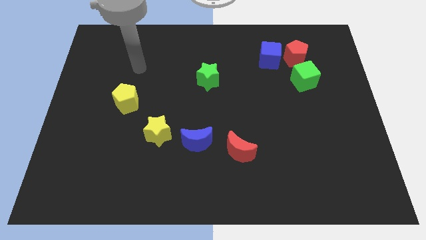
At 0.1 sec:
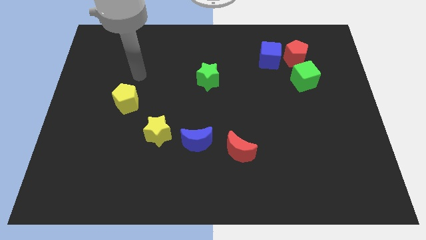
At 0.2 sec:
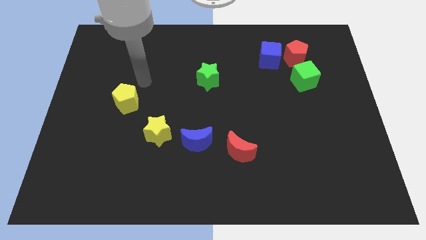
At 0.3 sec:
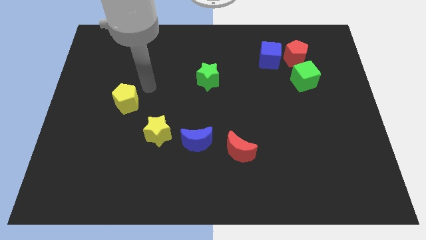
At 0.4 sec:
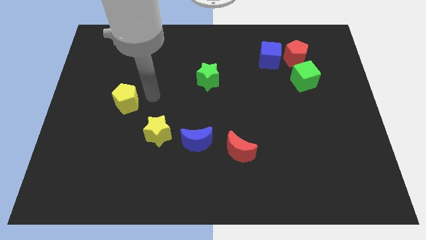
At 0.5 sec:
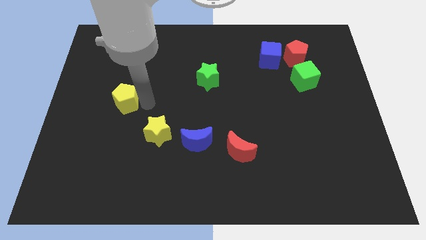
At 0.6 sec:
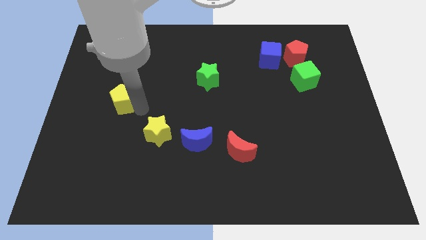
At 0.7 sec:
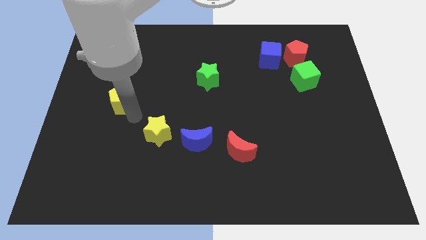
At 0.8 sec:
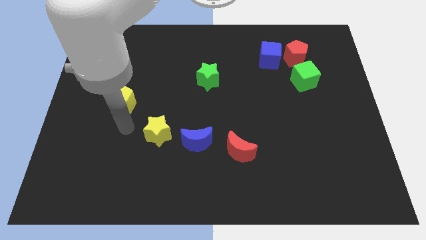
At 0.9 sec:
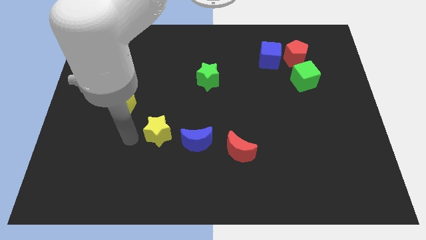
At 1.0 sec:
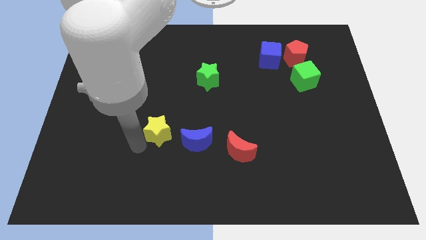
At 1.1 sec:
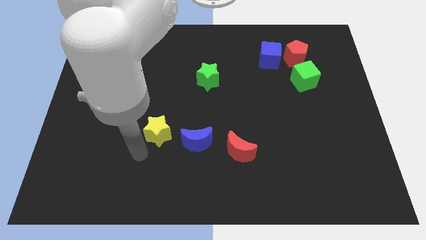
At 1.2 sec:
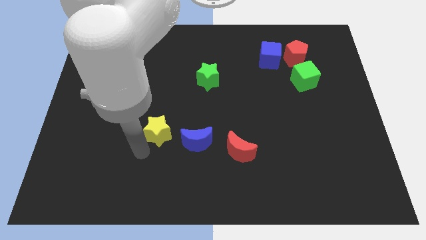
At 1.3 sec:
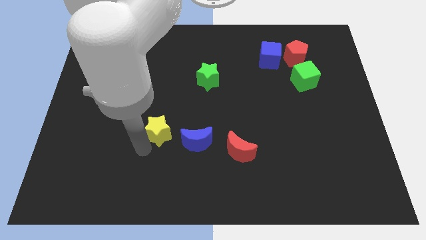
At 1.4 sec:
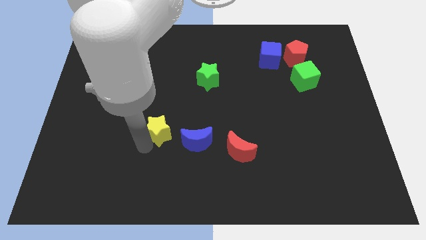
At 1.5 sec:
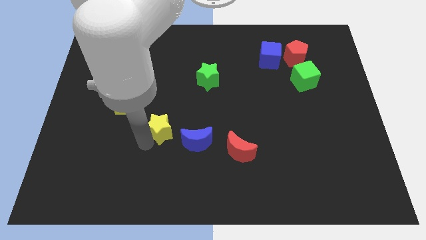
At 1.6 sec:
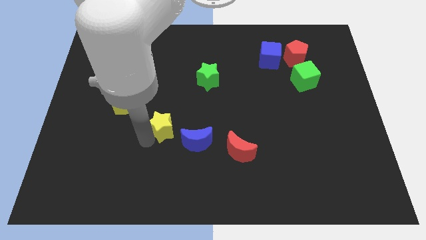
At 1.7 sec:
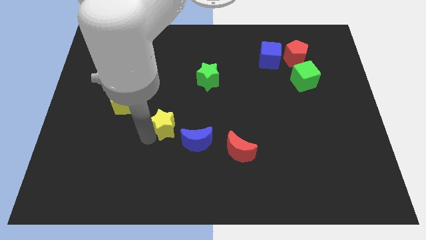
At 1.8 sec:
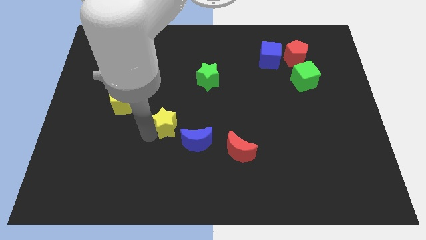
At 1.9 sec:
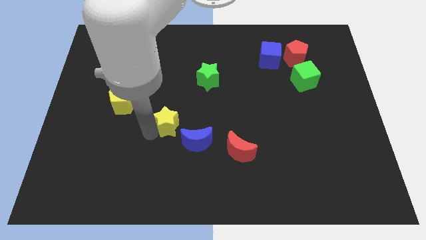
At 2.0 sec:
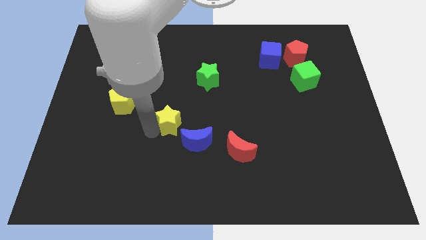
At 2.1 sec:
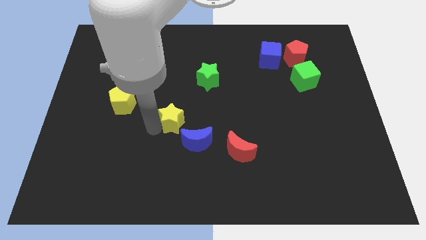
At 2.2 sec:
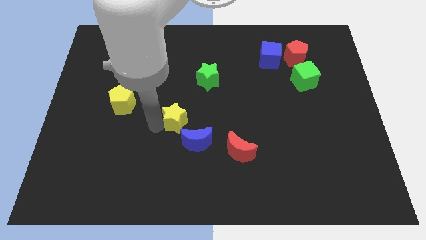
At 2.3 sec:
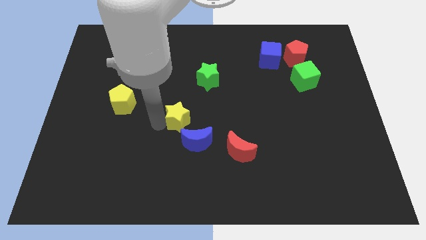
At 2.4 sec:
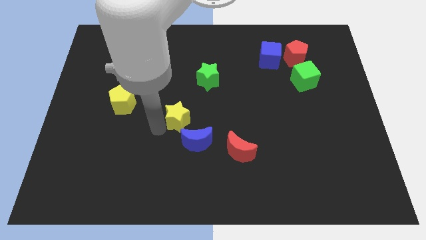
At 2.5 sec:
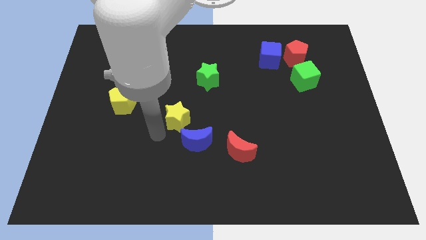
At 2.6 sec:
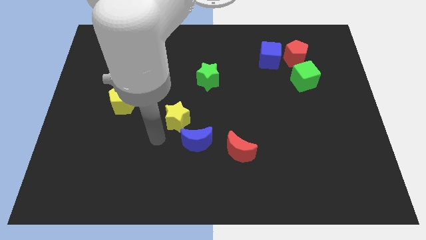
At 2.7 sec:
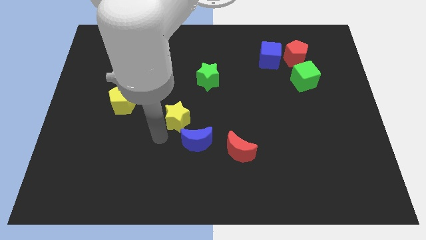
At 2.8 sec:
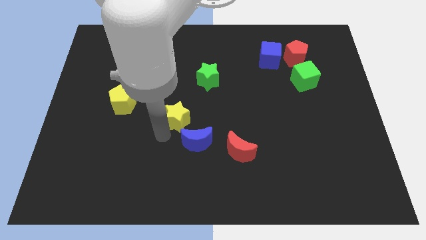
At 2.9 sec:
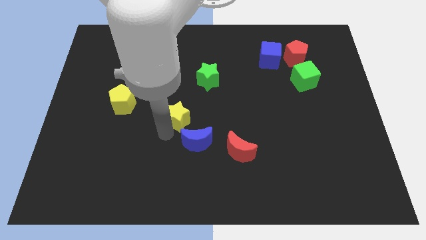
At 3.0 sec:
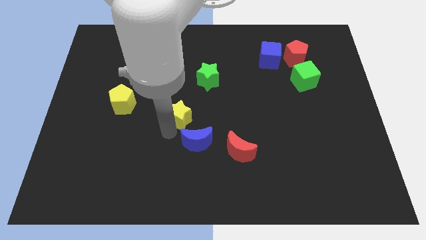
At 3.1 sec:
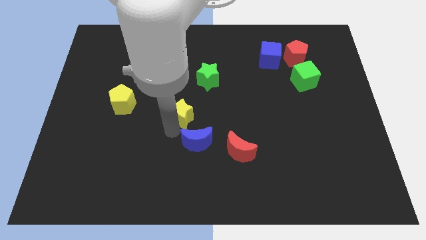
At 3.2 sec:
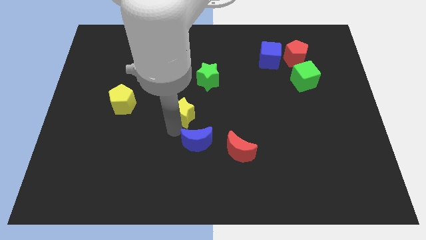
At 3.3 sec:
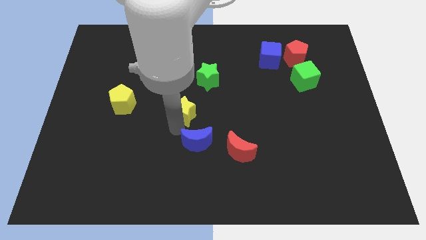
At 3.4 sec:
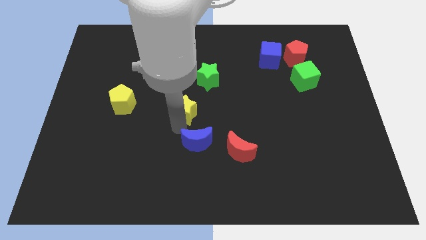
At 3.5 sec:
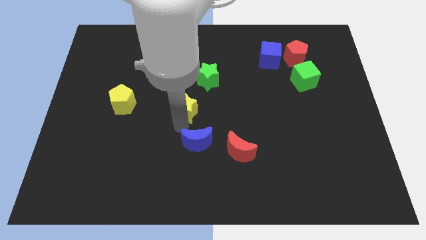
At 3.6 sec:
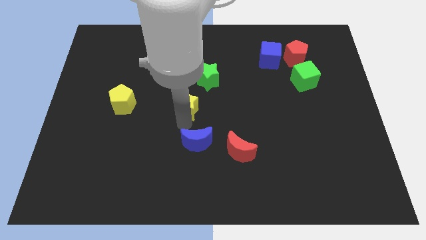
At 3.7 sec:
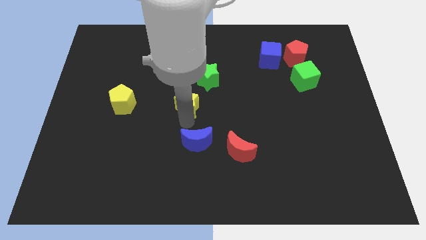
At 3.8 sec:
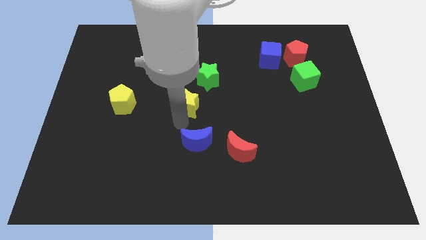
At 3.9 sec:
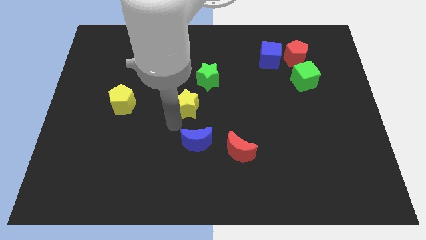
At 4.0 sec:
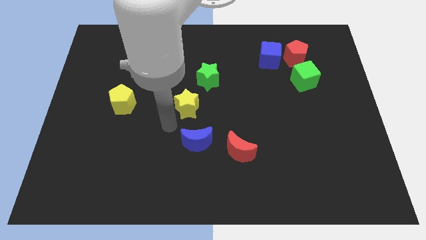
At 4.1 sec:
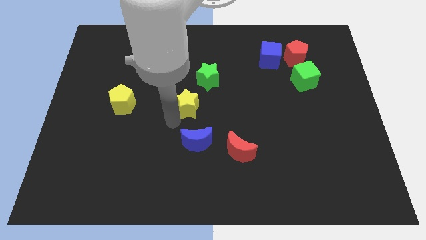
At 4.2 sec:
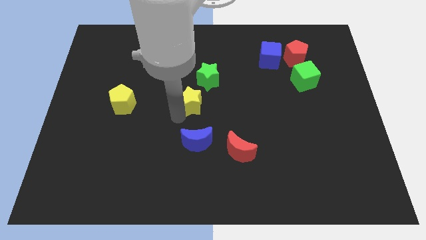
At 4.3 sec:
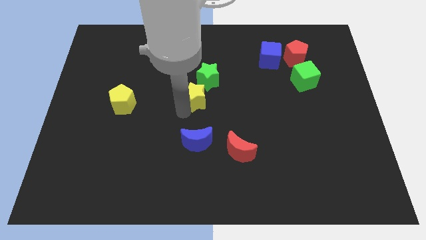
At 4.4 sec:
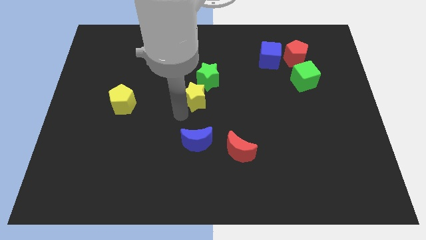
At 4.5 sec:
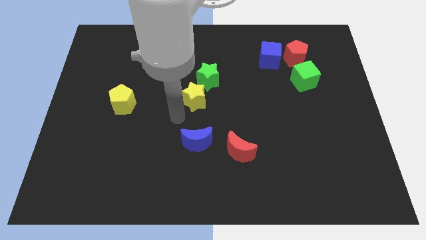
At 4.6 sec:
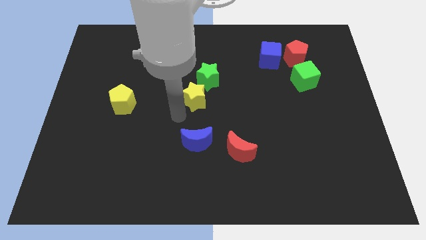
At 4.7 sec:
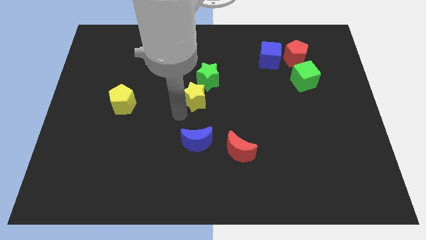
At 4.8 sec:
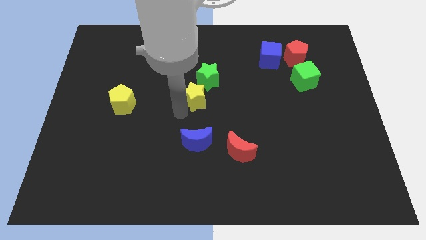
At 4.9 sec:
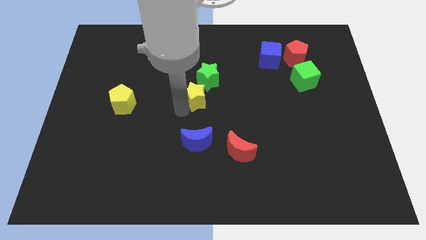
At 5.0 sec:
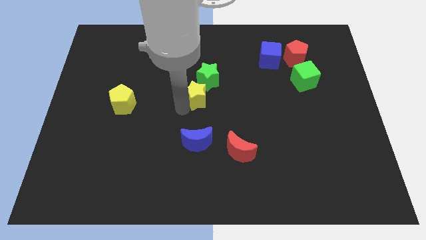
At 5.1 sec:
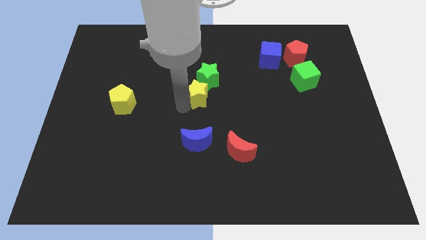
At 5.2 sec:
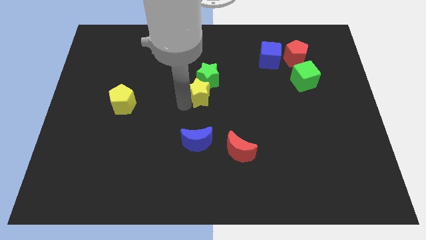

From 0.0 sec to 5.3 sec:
put the yellow star close to the green star

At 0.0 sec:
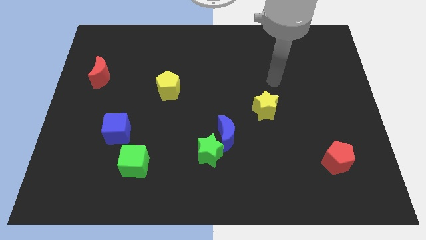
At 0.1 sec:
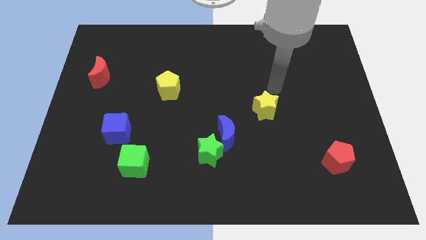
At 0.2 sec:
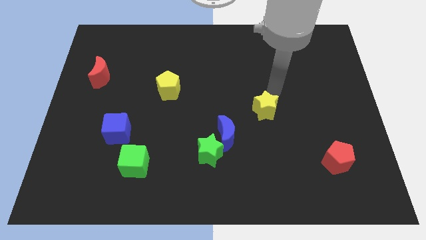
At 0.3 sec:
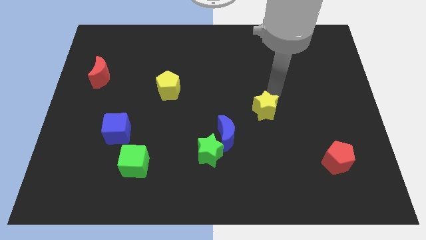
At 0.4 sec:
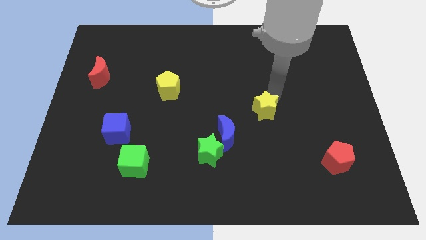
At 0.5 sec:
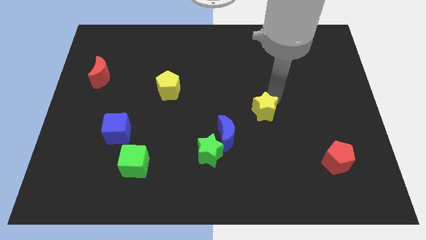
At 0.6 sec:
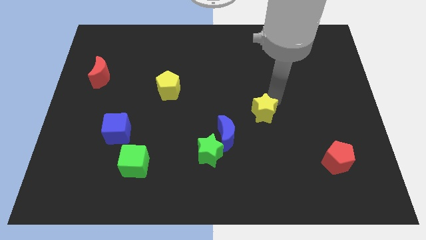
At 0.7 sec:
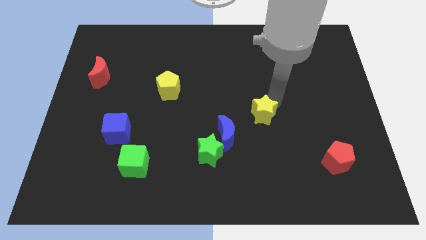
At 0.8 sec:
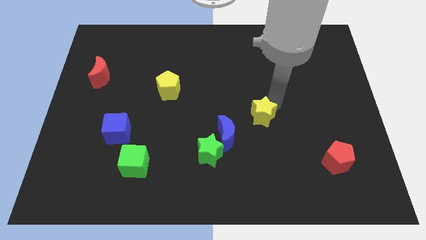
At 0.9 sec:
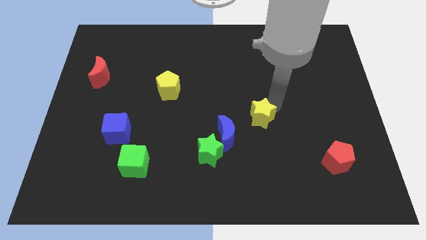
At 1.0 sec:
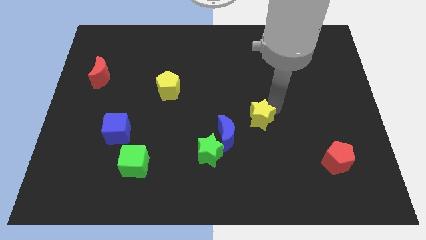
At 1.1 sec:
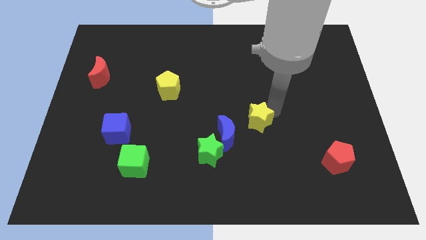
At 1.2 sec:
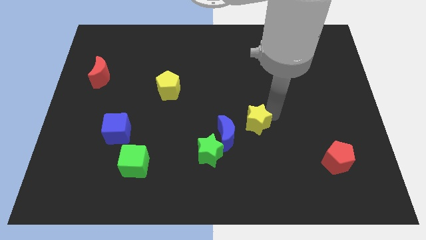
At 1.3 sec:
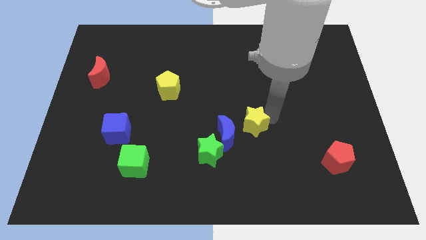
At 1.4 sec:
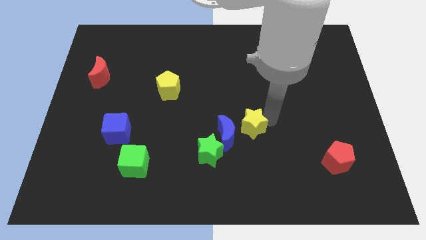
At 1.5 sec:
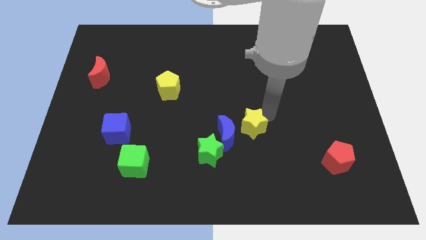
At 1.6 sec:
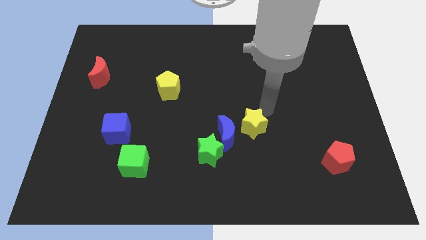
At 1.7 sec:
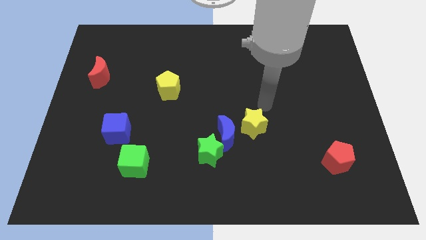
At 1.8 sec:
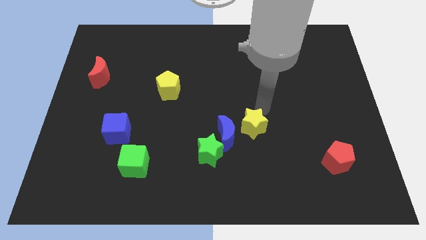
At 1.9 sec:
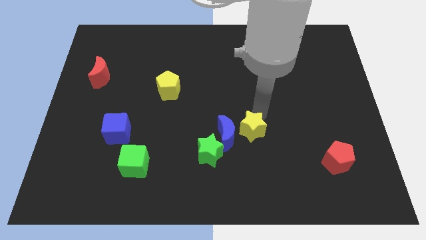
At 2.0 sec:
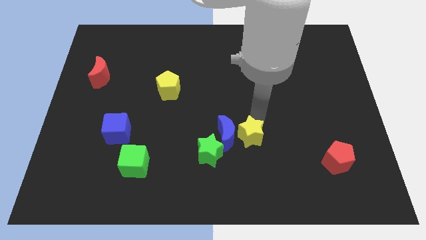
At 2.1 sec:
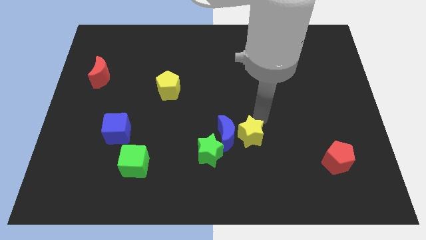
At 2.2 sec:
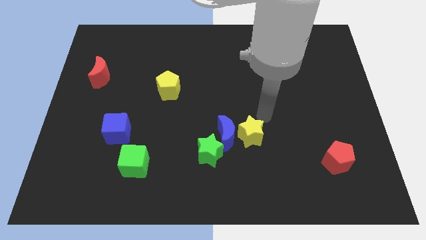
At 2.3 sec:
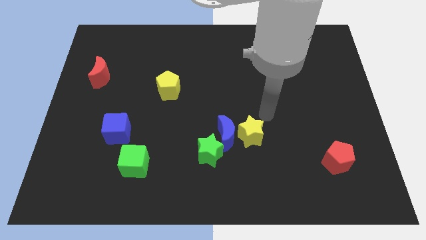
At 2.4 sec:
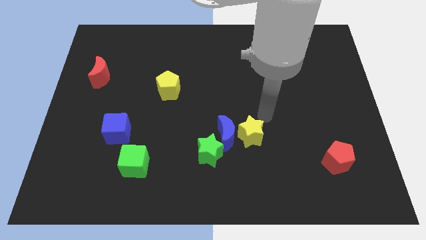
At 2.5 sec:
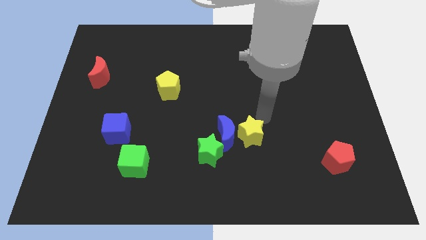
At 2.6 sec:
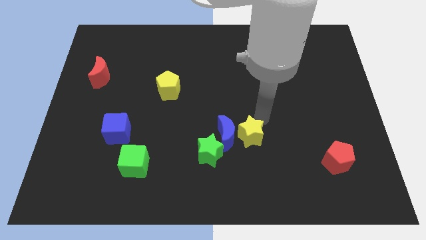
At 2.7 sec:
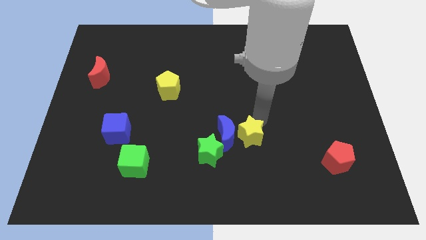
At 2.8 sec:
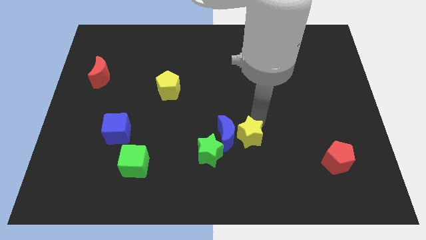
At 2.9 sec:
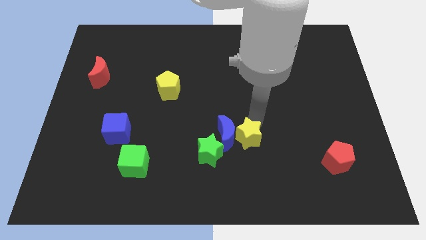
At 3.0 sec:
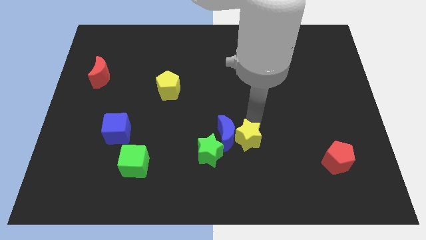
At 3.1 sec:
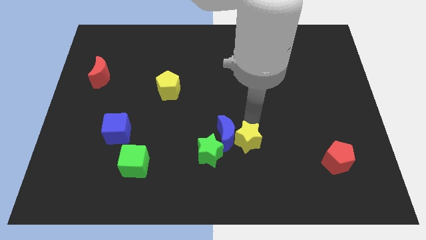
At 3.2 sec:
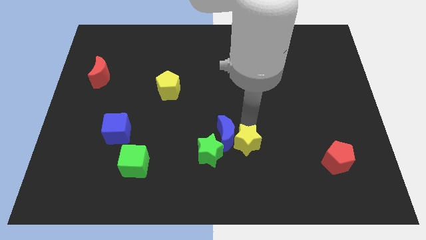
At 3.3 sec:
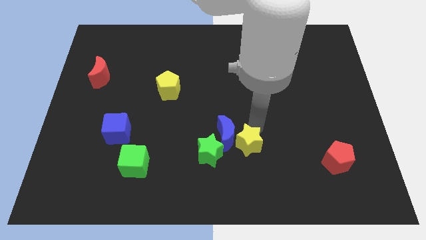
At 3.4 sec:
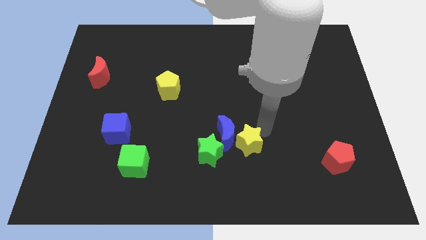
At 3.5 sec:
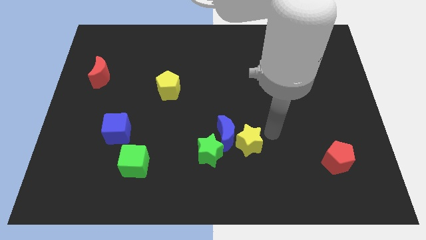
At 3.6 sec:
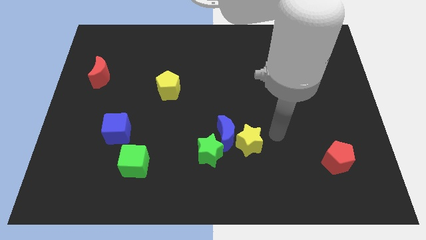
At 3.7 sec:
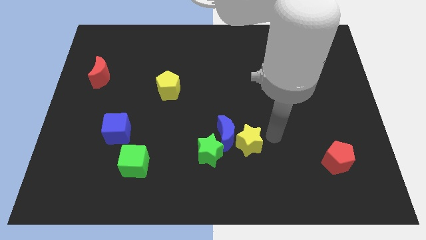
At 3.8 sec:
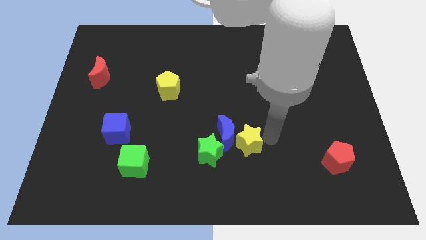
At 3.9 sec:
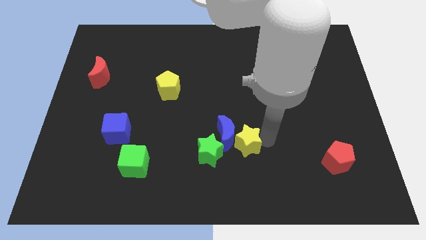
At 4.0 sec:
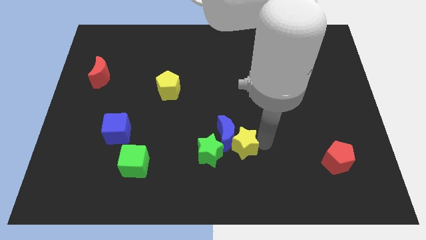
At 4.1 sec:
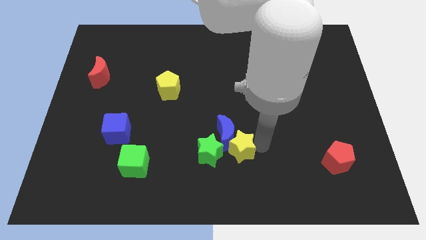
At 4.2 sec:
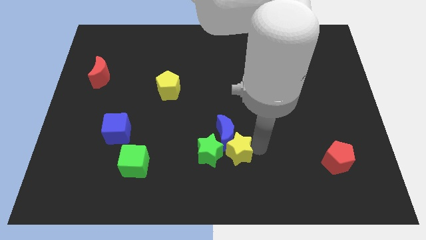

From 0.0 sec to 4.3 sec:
move the yellow star next to the green star
